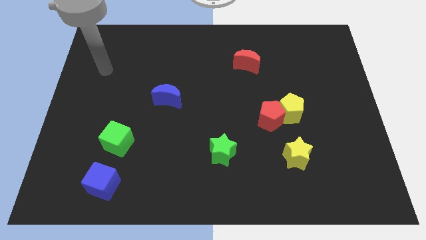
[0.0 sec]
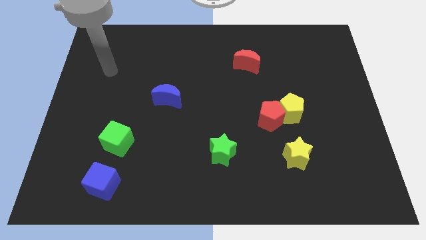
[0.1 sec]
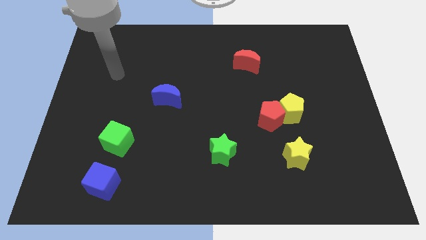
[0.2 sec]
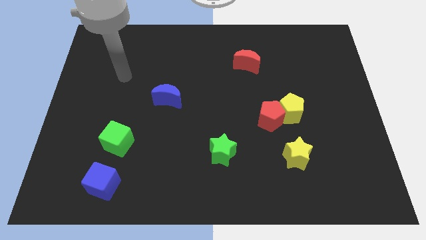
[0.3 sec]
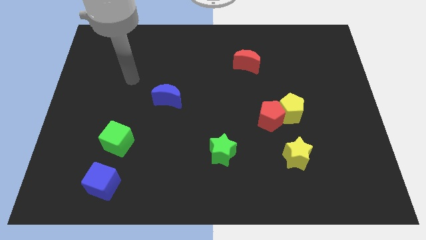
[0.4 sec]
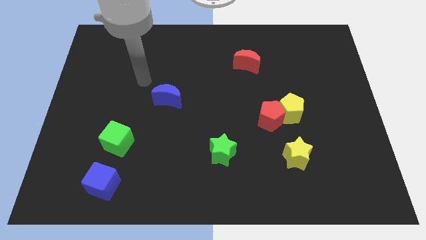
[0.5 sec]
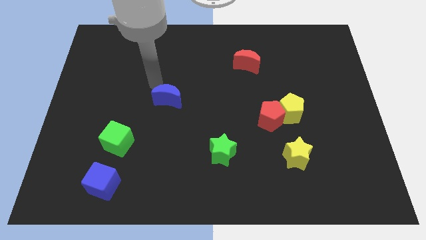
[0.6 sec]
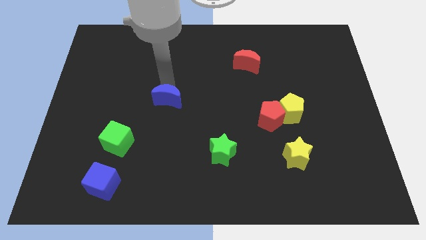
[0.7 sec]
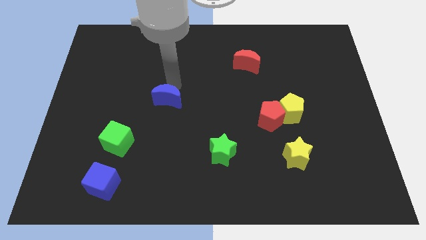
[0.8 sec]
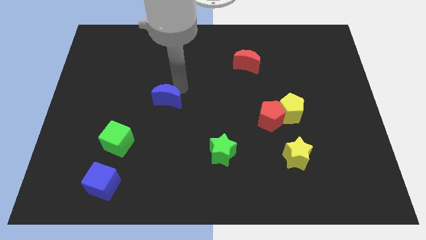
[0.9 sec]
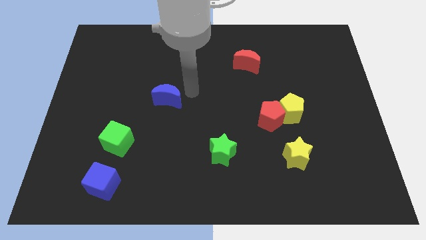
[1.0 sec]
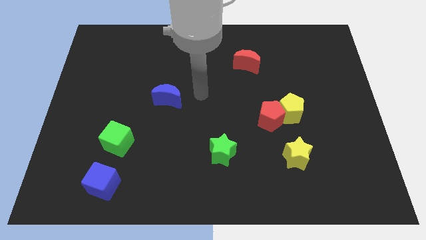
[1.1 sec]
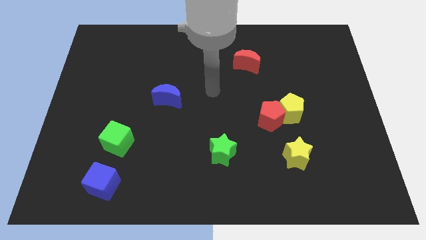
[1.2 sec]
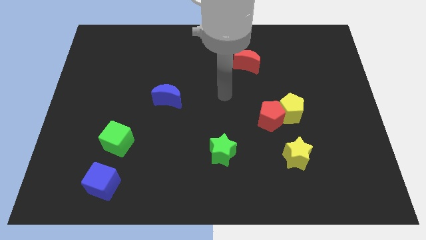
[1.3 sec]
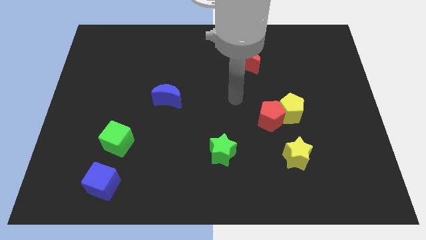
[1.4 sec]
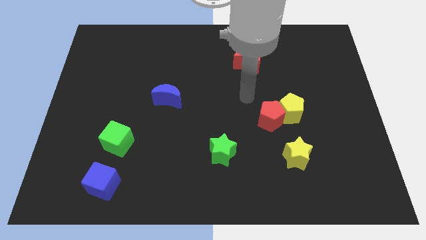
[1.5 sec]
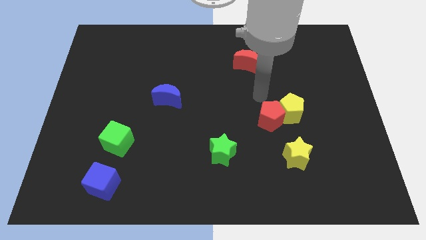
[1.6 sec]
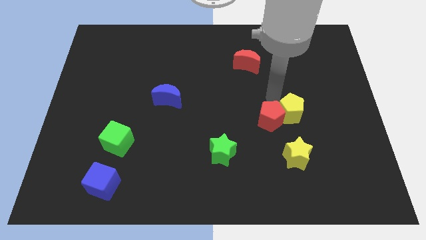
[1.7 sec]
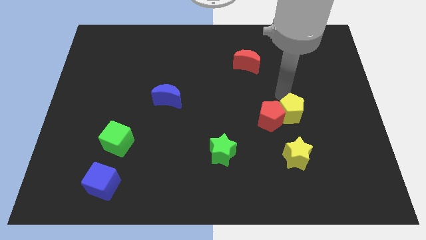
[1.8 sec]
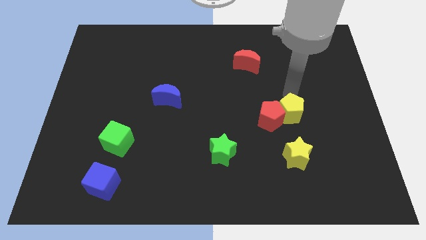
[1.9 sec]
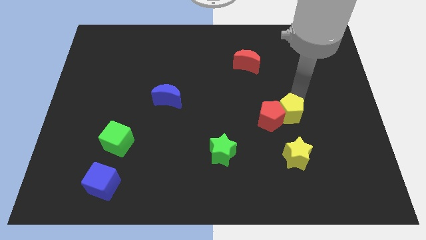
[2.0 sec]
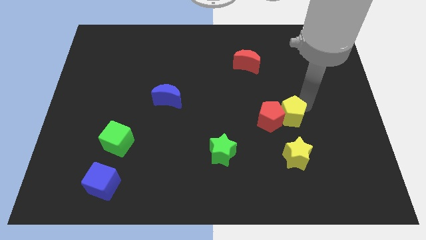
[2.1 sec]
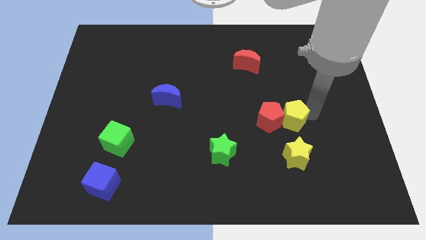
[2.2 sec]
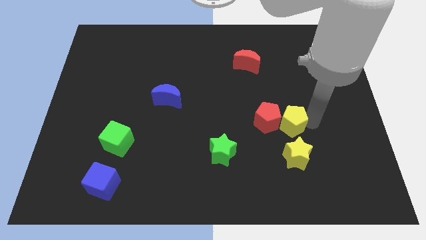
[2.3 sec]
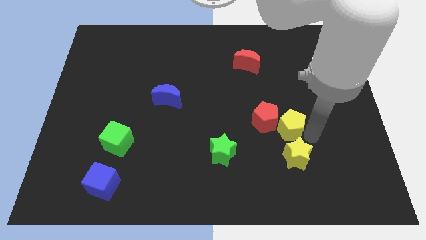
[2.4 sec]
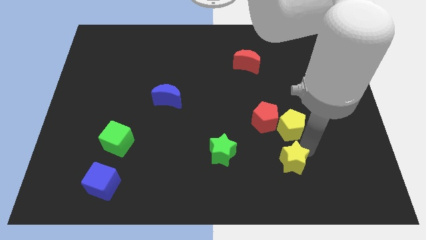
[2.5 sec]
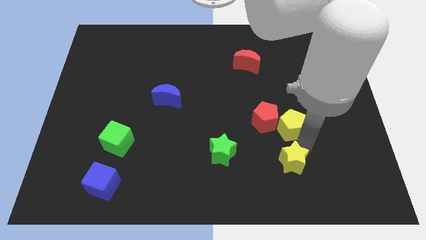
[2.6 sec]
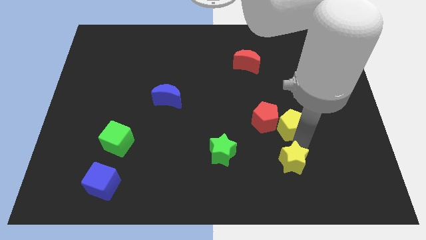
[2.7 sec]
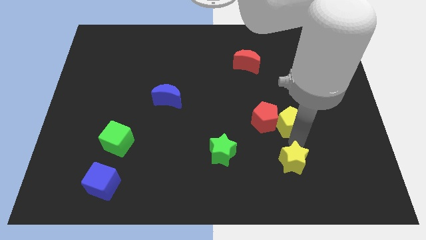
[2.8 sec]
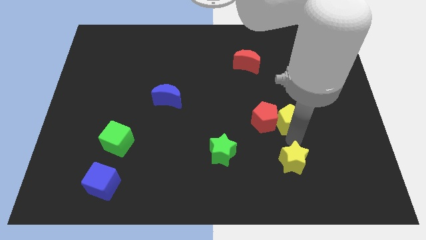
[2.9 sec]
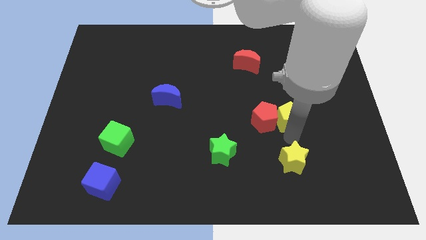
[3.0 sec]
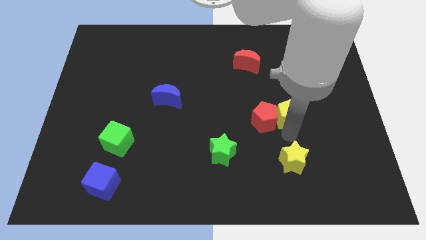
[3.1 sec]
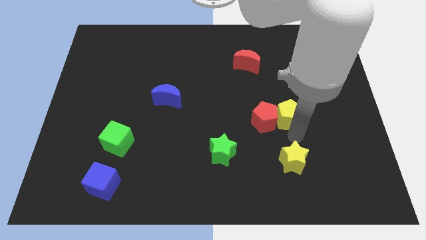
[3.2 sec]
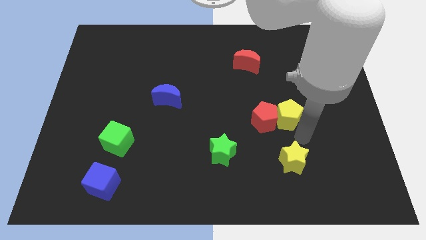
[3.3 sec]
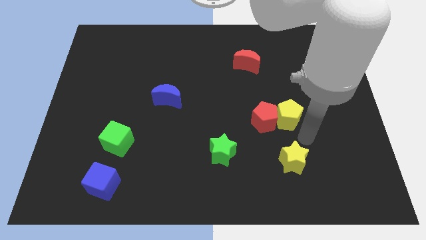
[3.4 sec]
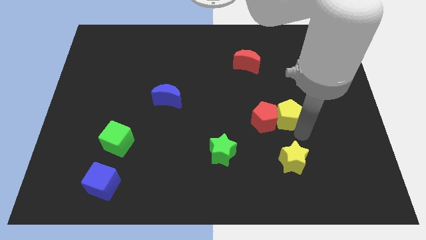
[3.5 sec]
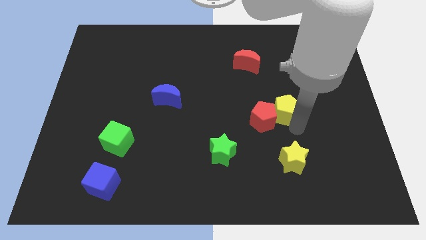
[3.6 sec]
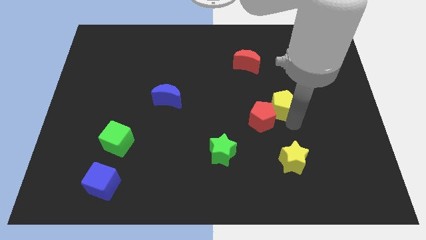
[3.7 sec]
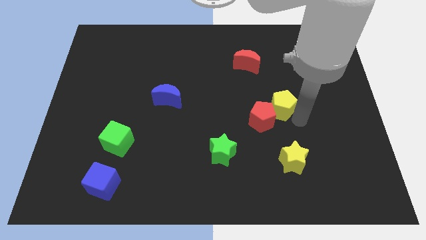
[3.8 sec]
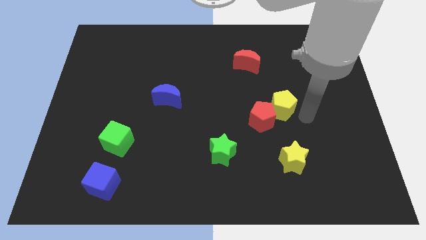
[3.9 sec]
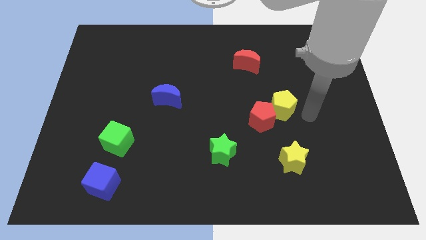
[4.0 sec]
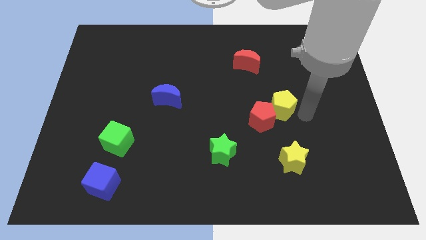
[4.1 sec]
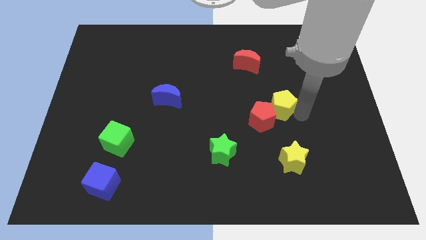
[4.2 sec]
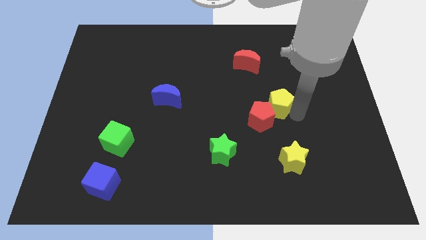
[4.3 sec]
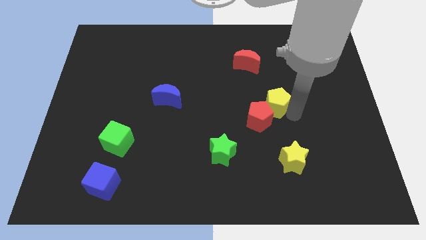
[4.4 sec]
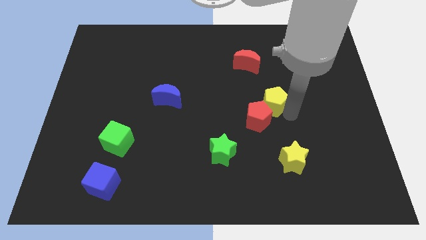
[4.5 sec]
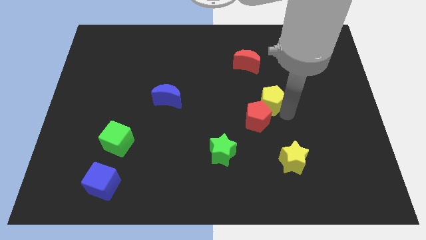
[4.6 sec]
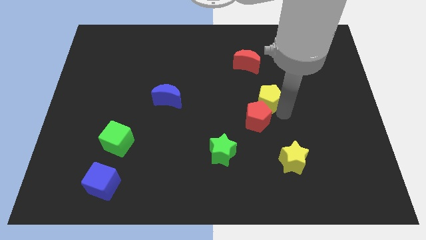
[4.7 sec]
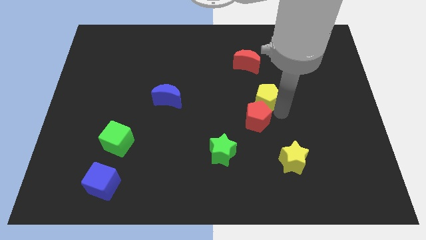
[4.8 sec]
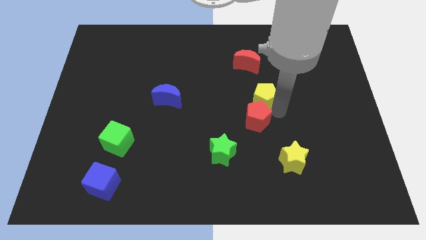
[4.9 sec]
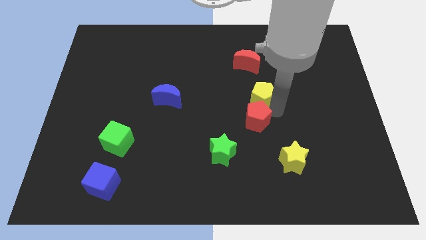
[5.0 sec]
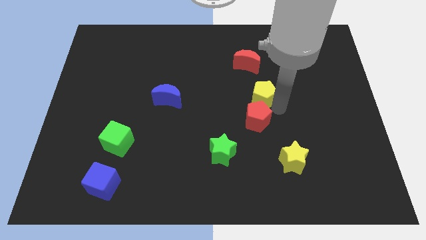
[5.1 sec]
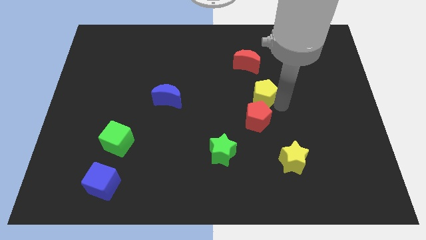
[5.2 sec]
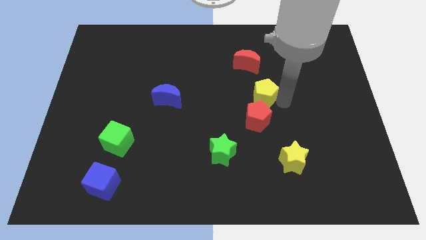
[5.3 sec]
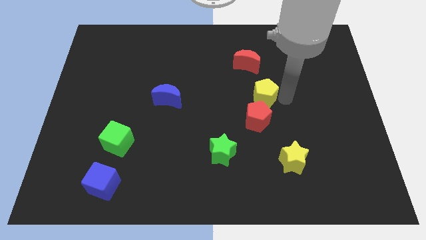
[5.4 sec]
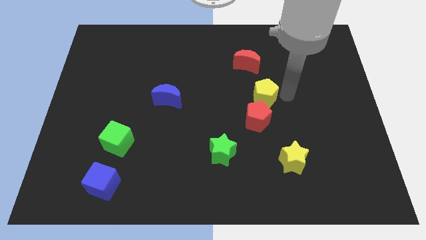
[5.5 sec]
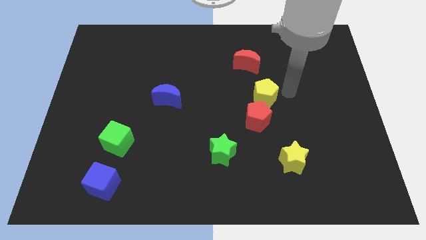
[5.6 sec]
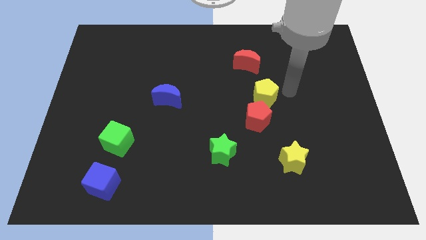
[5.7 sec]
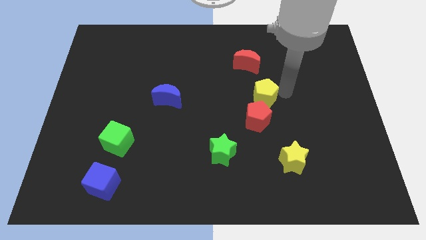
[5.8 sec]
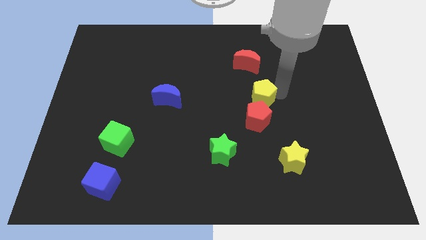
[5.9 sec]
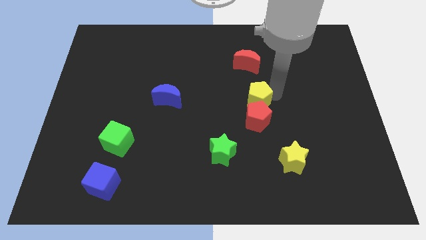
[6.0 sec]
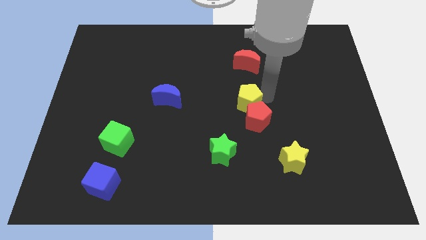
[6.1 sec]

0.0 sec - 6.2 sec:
slide the yellow pentagon slightly left

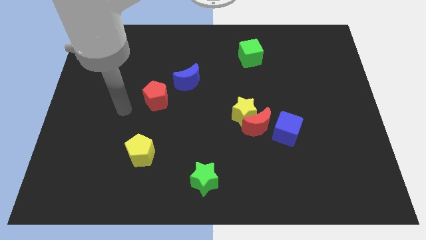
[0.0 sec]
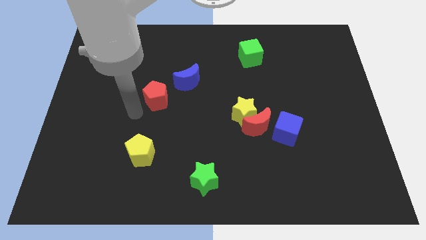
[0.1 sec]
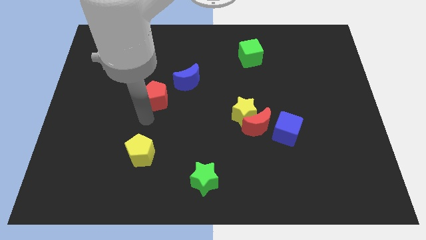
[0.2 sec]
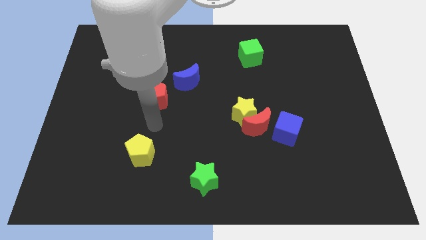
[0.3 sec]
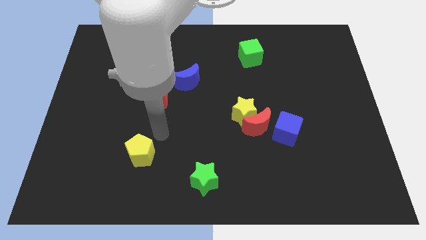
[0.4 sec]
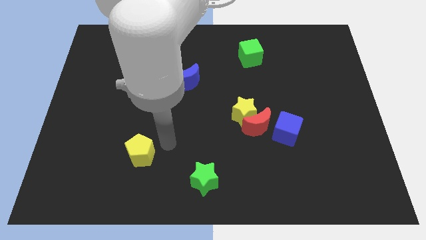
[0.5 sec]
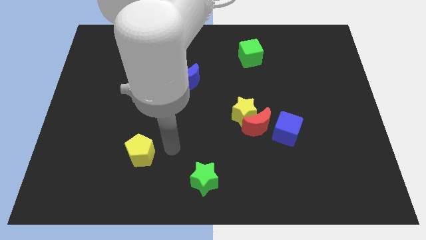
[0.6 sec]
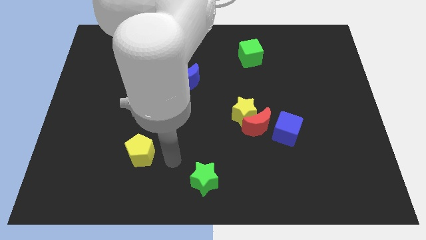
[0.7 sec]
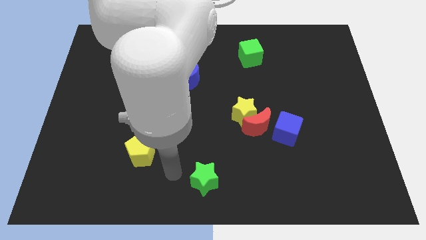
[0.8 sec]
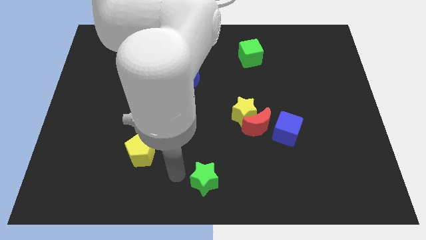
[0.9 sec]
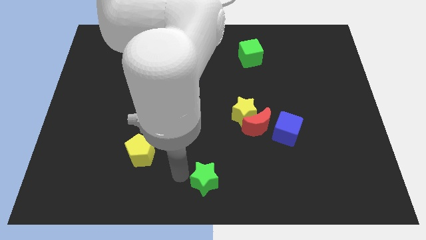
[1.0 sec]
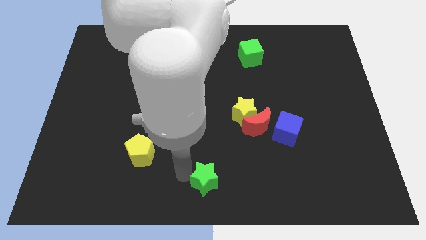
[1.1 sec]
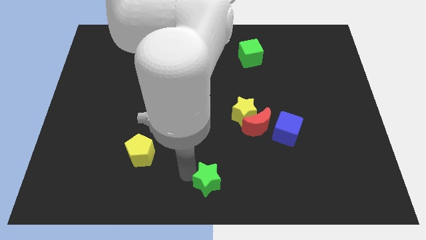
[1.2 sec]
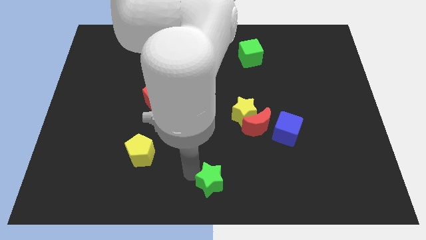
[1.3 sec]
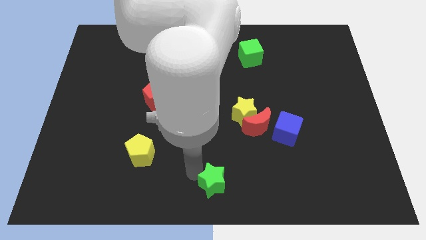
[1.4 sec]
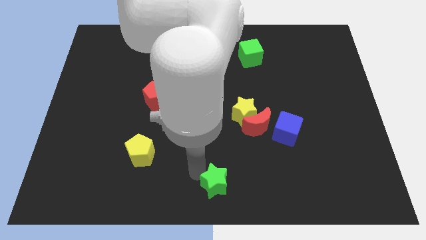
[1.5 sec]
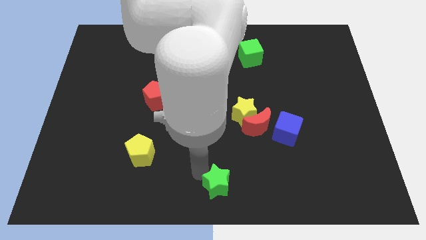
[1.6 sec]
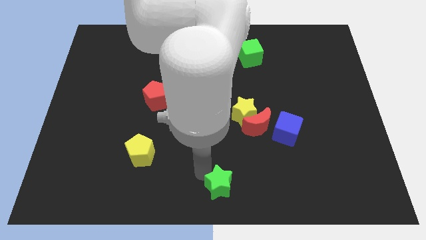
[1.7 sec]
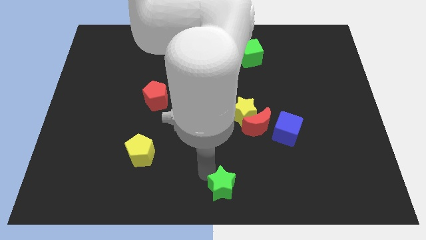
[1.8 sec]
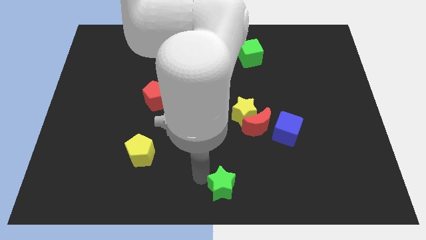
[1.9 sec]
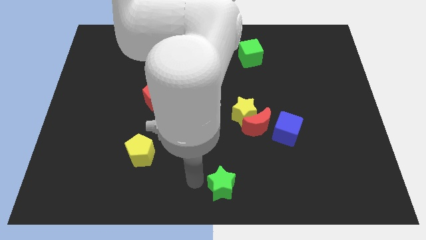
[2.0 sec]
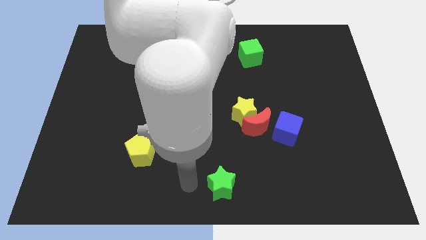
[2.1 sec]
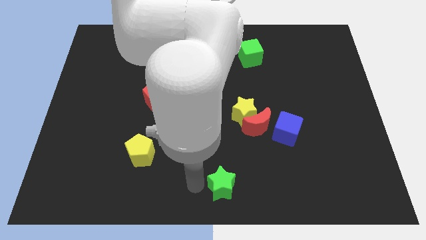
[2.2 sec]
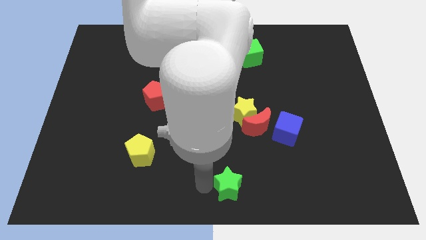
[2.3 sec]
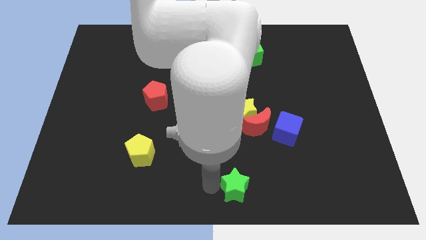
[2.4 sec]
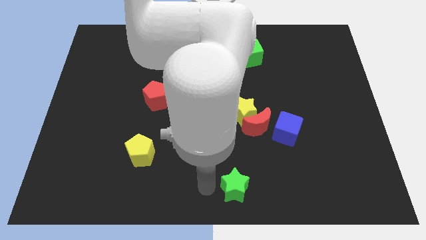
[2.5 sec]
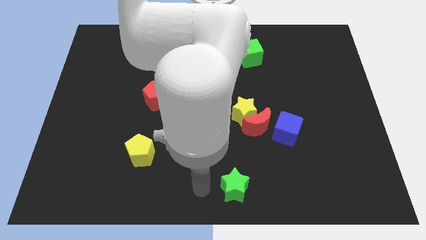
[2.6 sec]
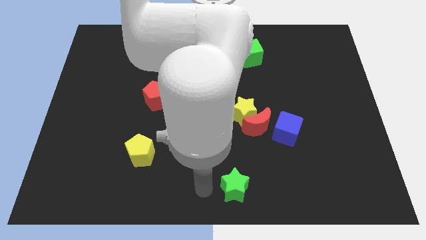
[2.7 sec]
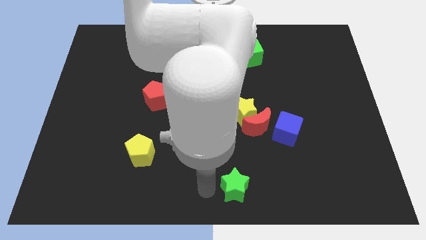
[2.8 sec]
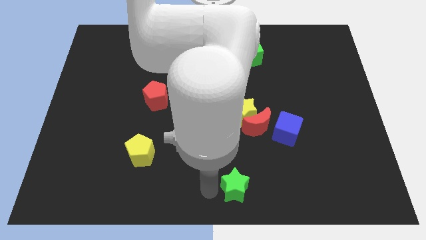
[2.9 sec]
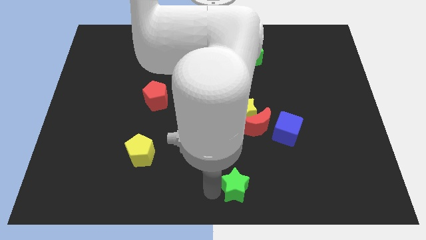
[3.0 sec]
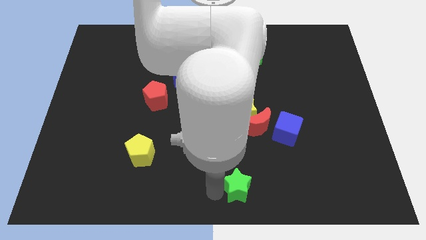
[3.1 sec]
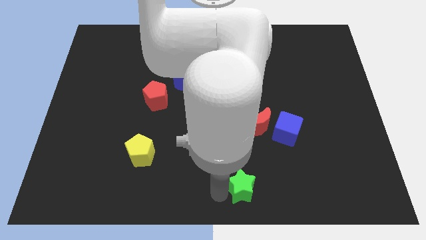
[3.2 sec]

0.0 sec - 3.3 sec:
slide the green star to the right a little bit
